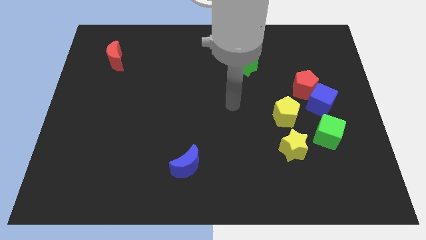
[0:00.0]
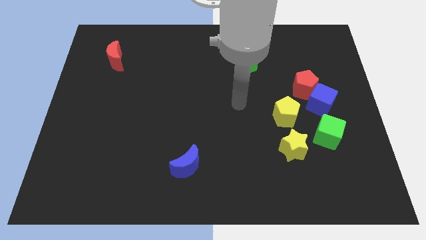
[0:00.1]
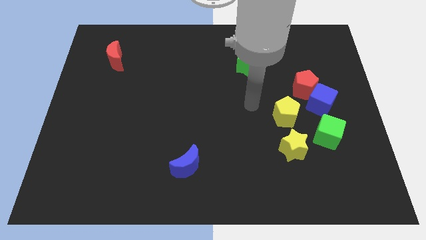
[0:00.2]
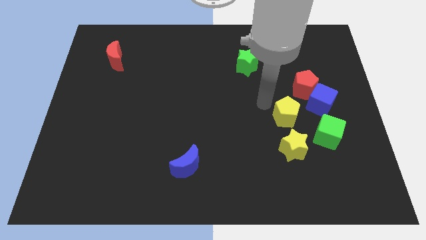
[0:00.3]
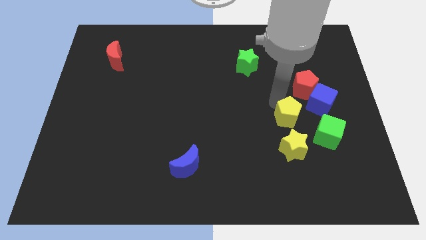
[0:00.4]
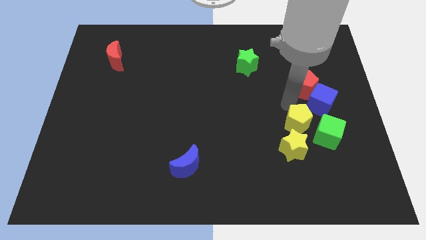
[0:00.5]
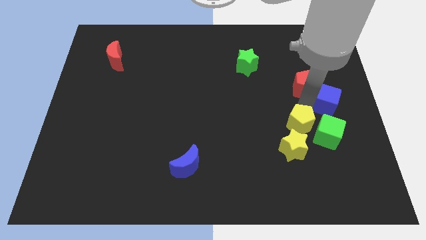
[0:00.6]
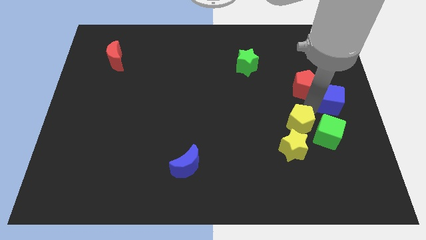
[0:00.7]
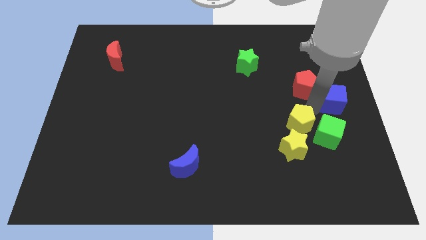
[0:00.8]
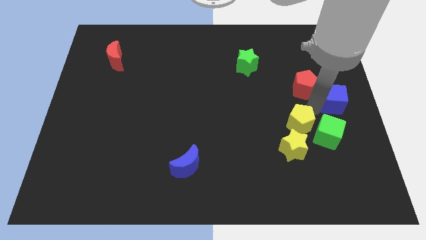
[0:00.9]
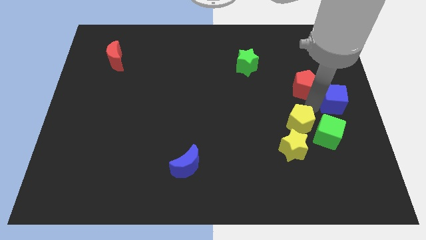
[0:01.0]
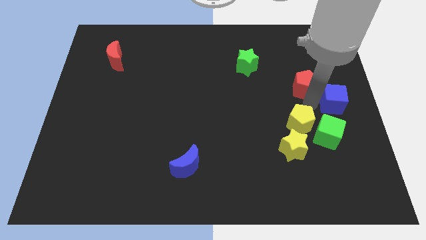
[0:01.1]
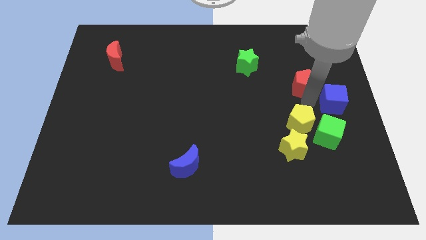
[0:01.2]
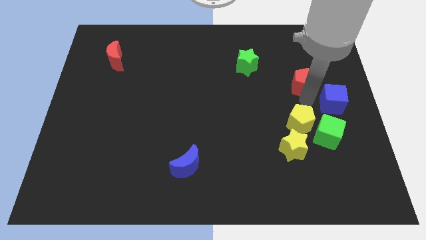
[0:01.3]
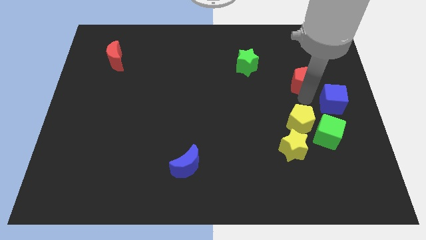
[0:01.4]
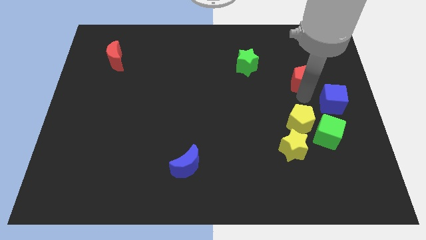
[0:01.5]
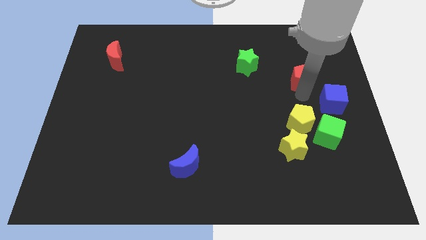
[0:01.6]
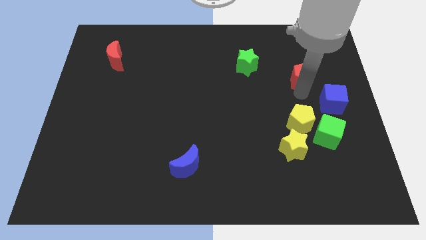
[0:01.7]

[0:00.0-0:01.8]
pull the red pentagon apart from the blue cube and yellow pentagon

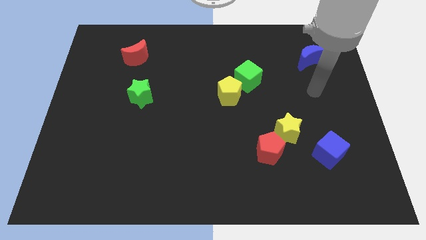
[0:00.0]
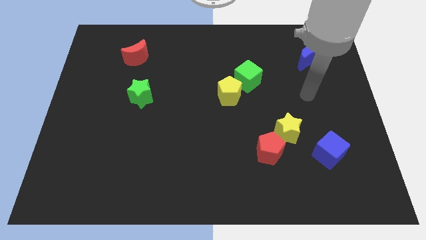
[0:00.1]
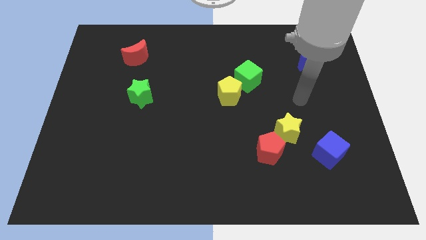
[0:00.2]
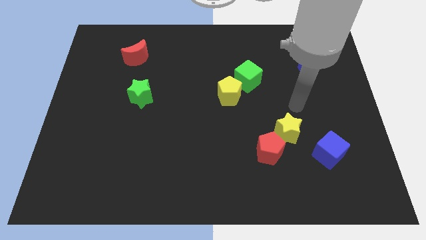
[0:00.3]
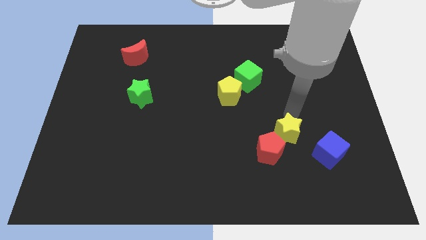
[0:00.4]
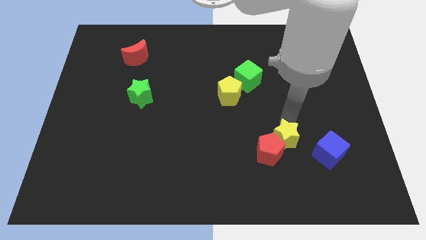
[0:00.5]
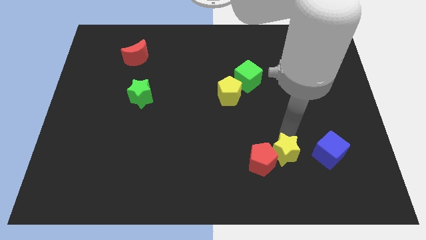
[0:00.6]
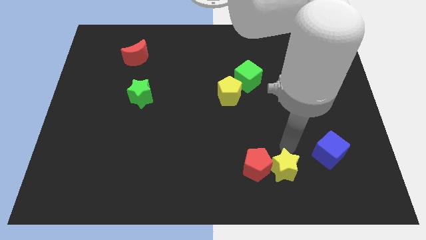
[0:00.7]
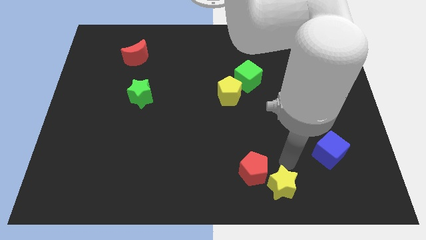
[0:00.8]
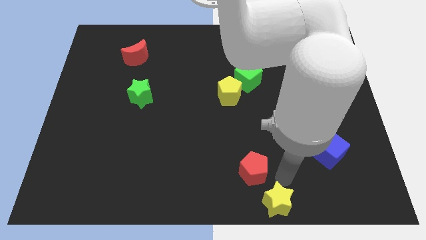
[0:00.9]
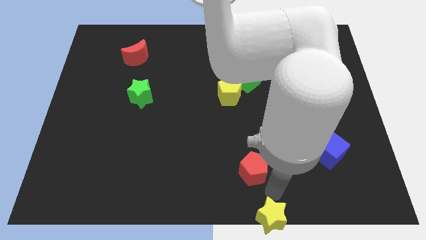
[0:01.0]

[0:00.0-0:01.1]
move the red pentagon away from the yellow star

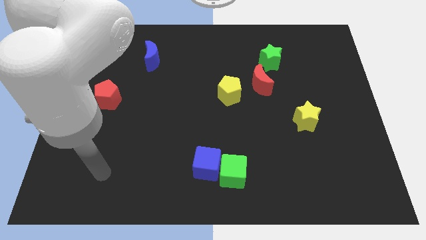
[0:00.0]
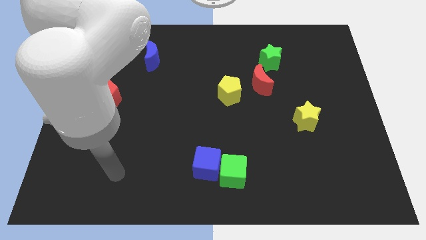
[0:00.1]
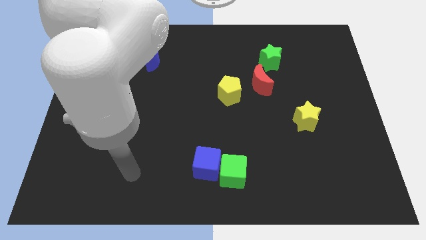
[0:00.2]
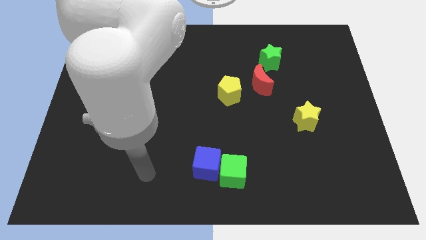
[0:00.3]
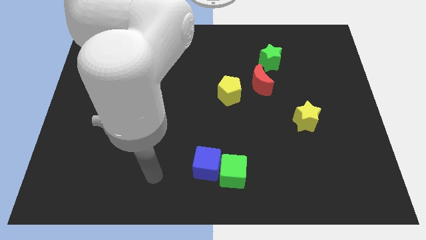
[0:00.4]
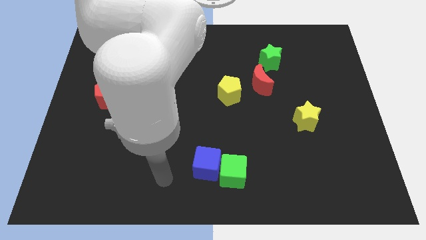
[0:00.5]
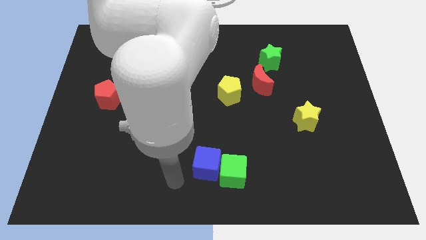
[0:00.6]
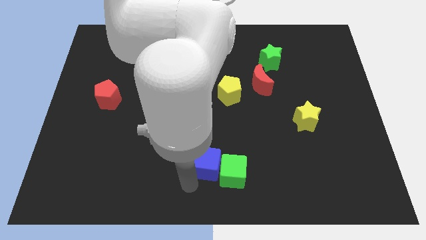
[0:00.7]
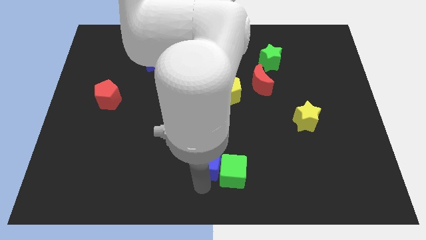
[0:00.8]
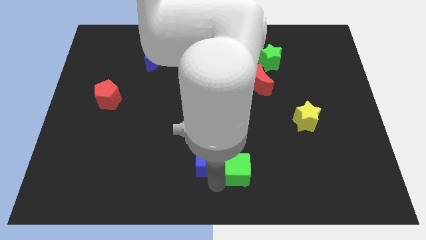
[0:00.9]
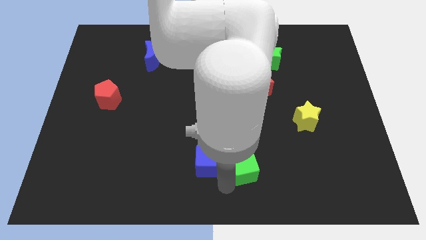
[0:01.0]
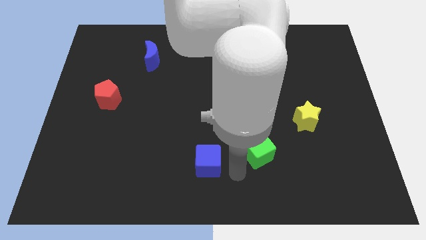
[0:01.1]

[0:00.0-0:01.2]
move the blue cube away from the green cube

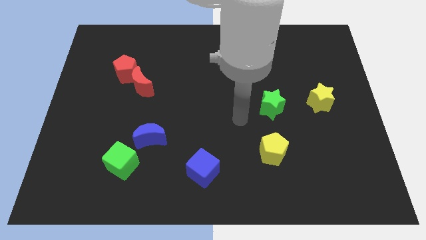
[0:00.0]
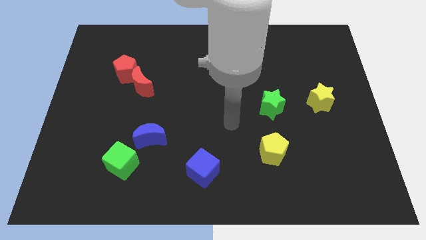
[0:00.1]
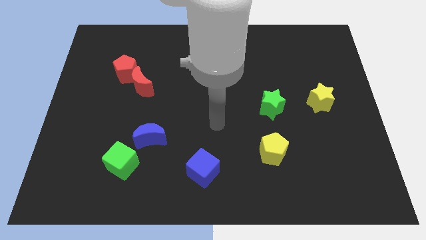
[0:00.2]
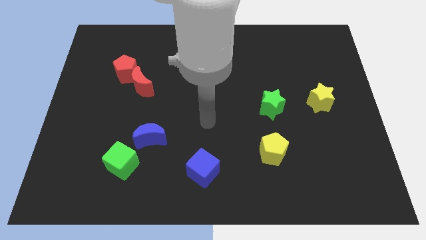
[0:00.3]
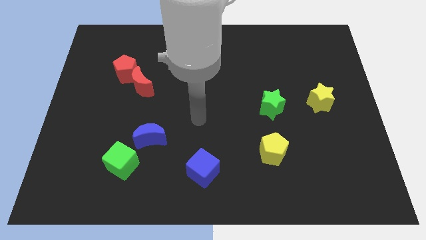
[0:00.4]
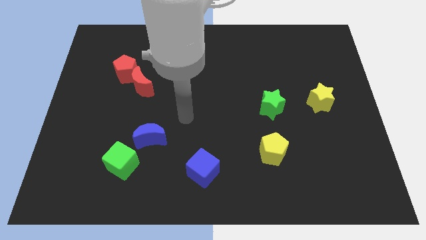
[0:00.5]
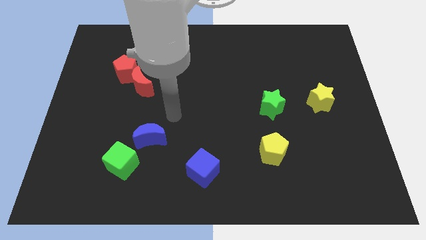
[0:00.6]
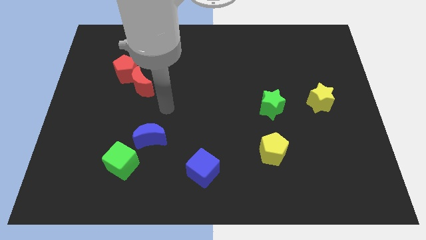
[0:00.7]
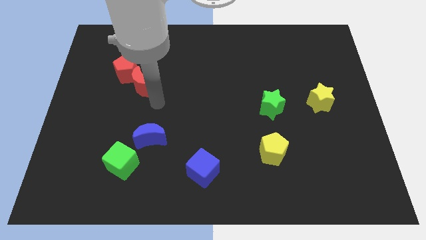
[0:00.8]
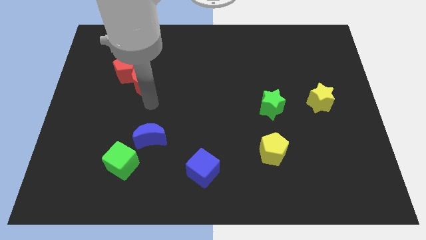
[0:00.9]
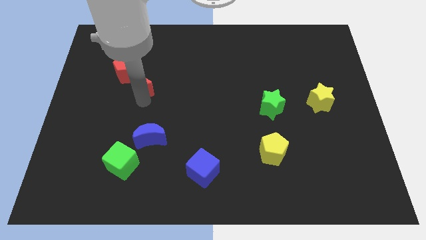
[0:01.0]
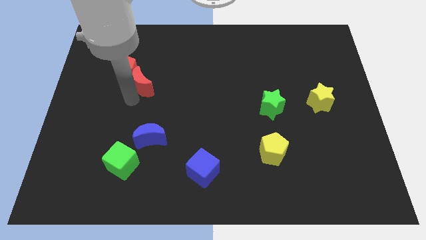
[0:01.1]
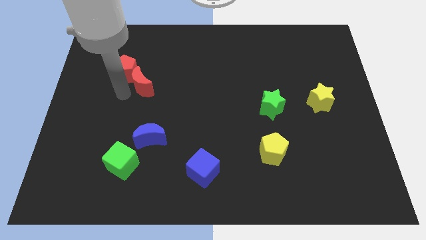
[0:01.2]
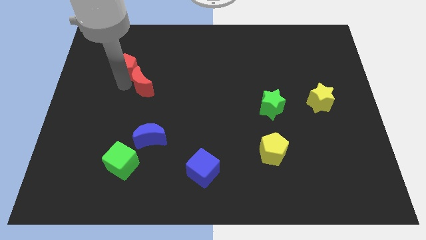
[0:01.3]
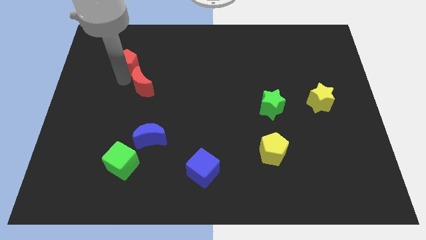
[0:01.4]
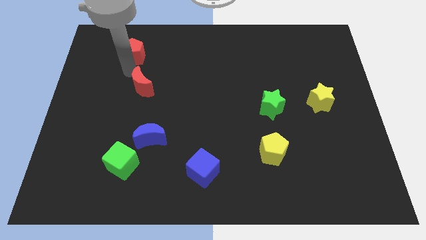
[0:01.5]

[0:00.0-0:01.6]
separate the red moon from the red pentagon

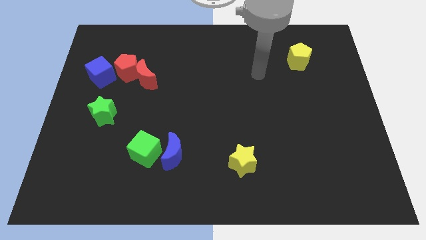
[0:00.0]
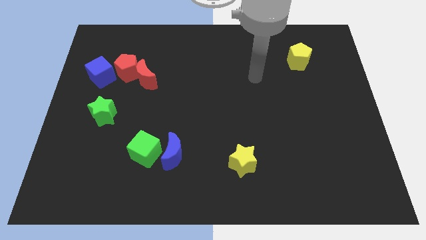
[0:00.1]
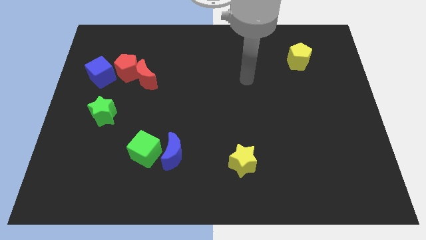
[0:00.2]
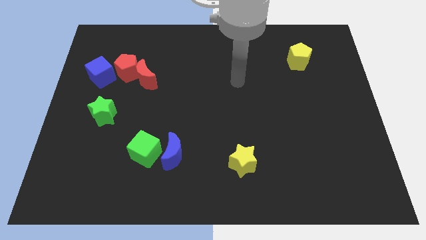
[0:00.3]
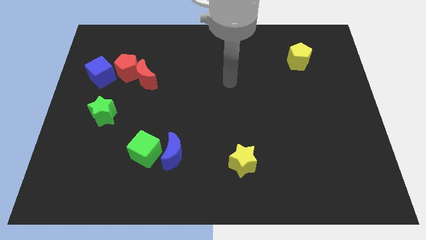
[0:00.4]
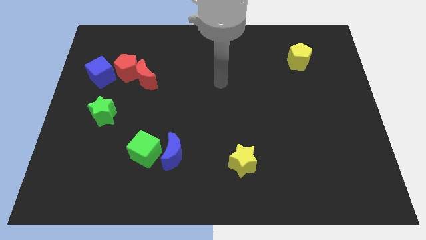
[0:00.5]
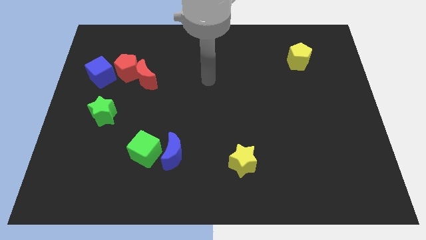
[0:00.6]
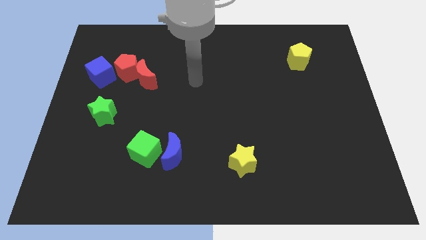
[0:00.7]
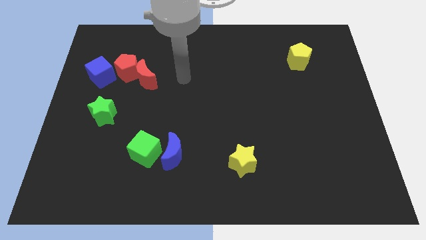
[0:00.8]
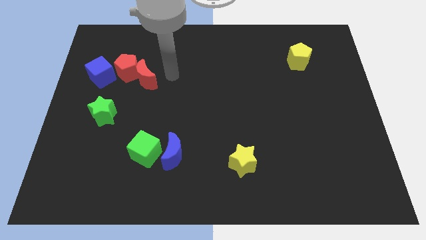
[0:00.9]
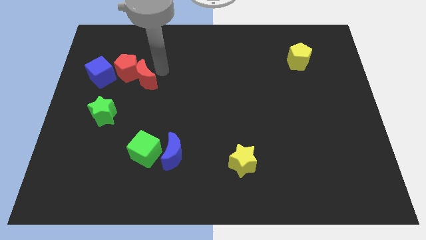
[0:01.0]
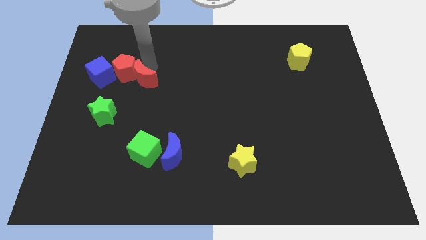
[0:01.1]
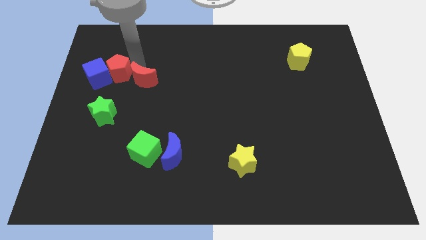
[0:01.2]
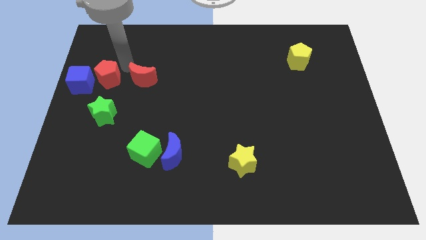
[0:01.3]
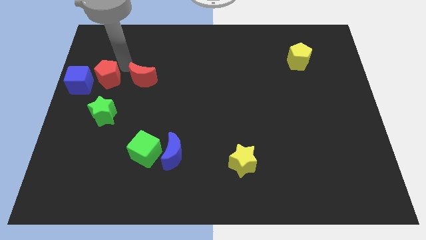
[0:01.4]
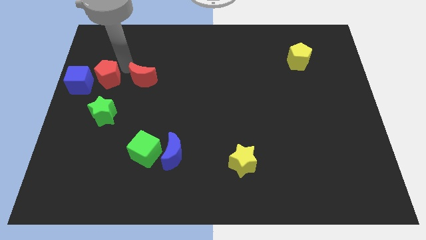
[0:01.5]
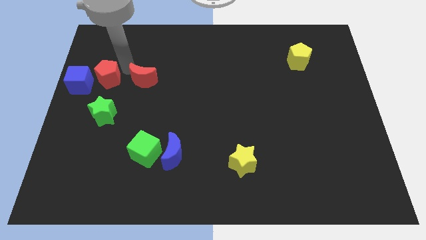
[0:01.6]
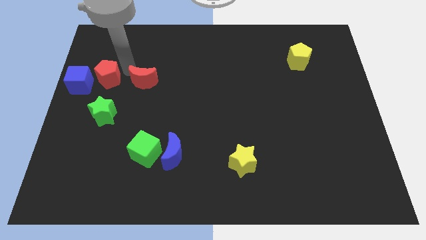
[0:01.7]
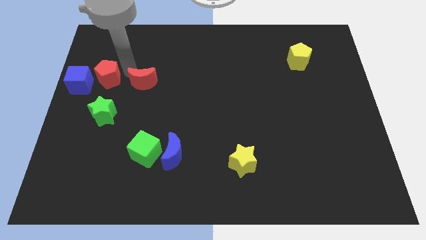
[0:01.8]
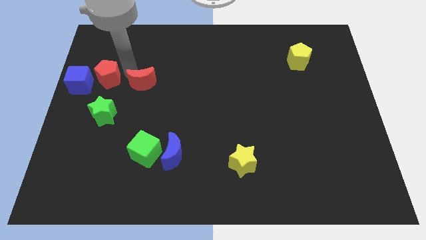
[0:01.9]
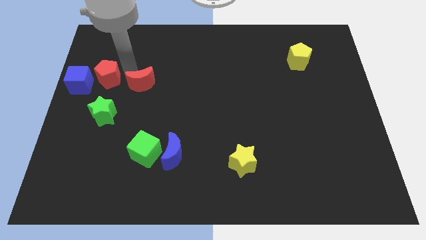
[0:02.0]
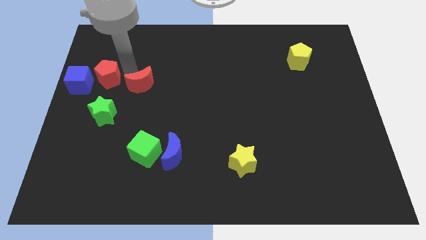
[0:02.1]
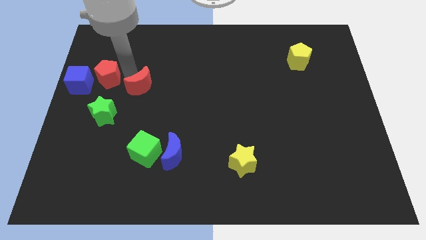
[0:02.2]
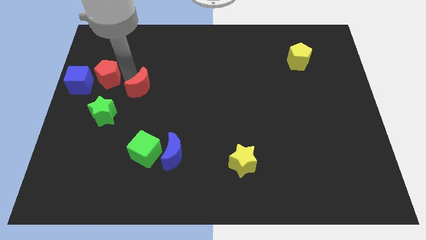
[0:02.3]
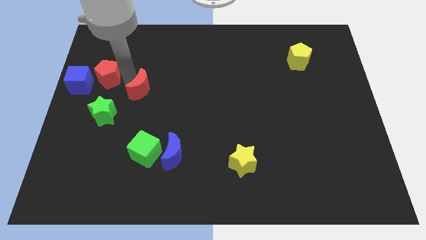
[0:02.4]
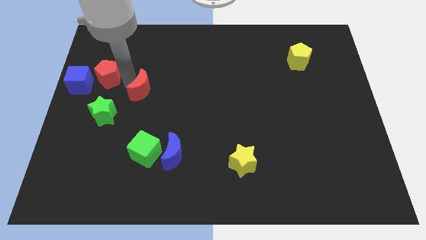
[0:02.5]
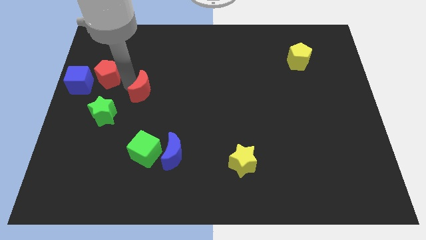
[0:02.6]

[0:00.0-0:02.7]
pull the red moon apart from the red pentagon

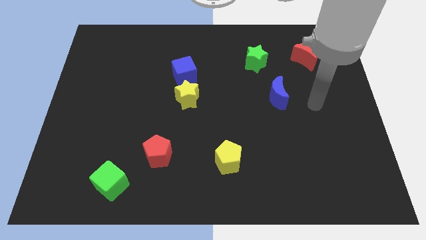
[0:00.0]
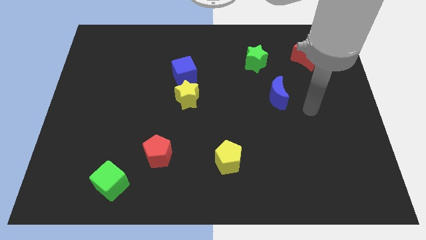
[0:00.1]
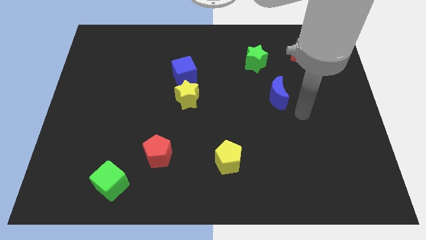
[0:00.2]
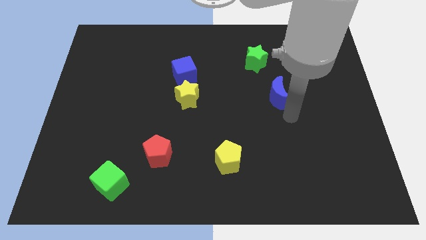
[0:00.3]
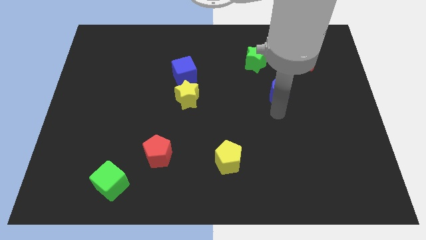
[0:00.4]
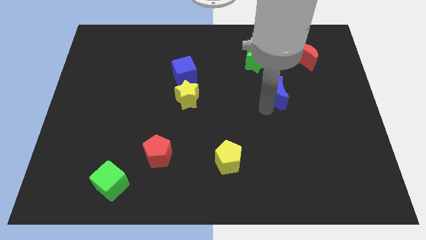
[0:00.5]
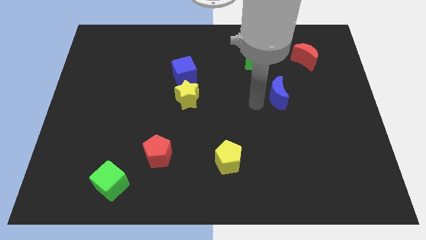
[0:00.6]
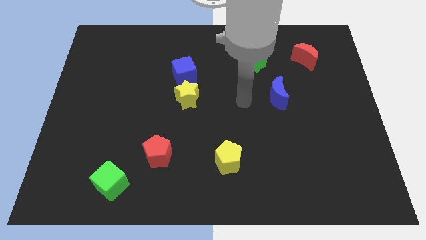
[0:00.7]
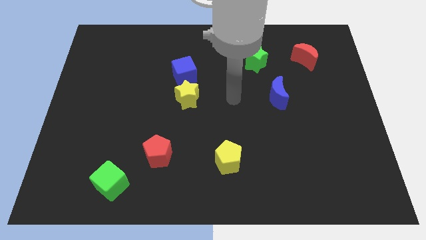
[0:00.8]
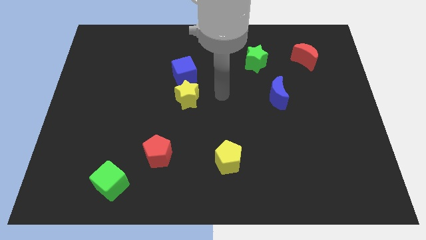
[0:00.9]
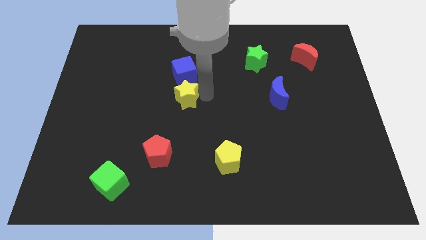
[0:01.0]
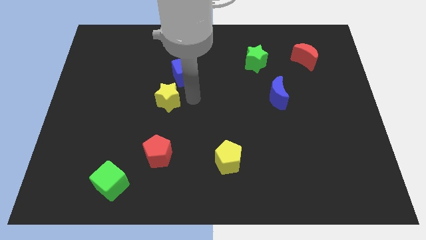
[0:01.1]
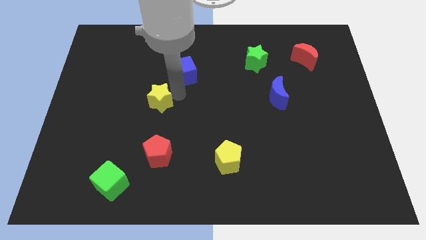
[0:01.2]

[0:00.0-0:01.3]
pull the blue cube apart from the yellow star
